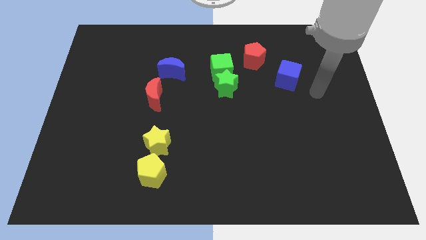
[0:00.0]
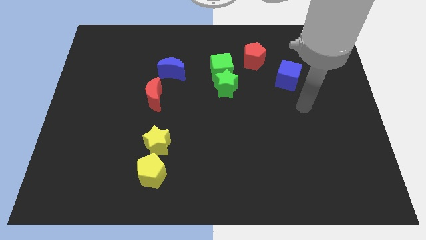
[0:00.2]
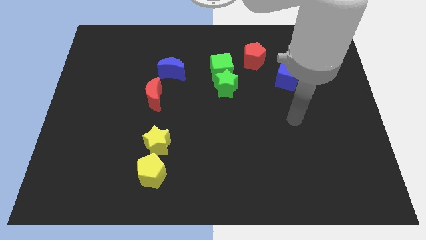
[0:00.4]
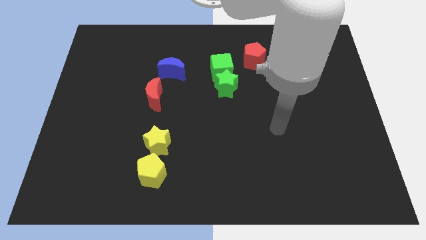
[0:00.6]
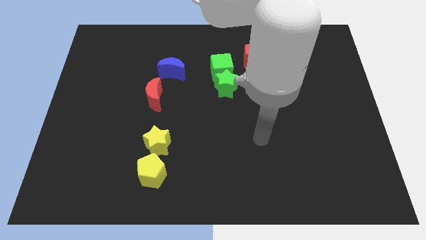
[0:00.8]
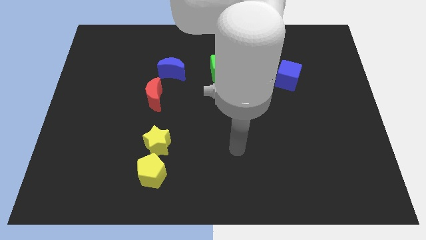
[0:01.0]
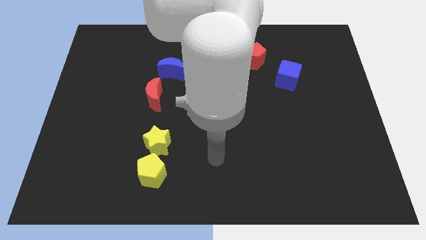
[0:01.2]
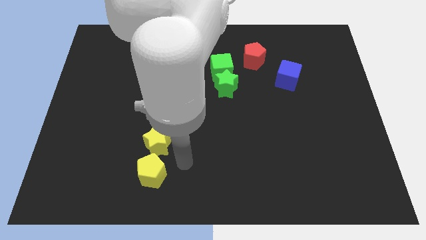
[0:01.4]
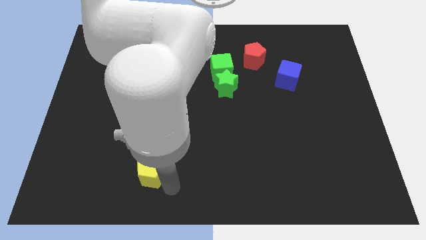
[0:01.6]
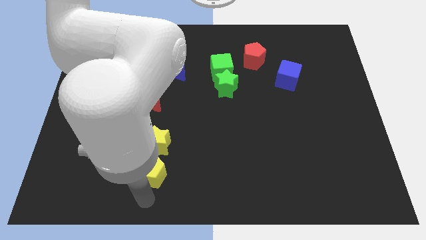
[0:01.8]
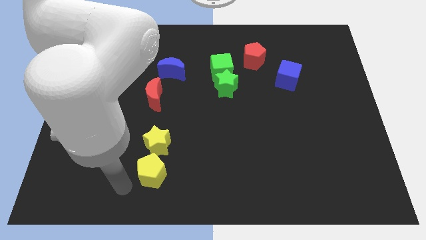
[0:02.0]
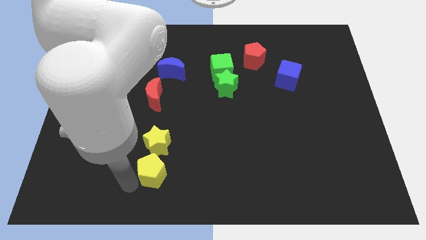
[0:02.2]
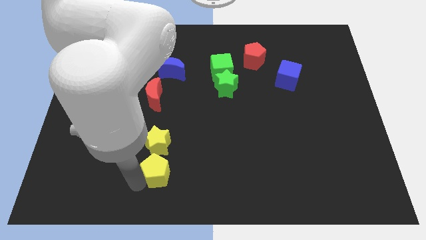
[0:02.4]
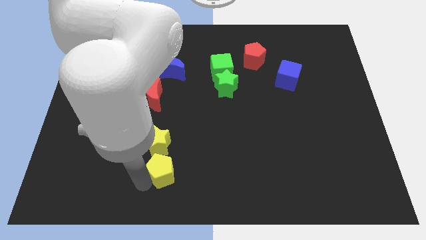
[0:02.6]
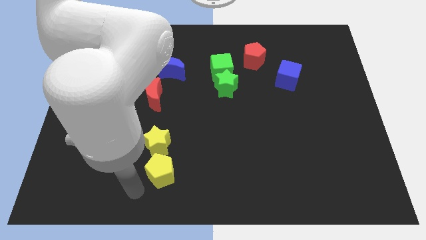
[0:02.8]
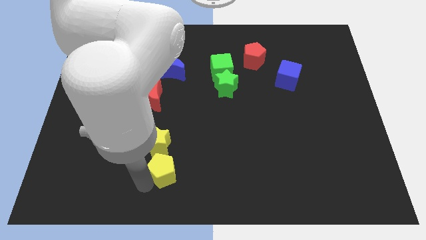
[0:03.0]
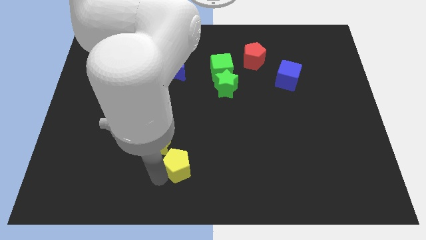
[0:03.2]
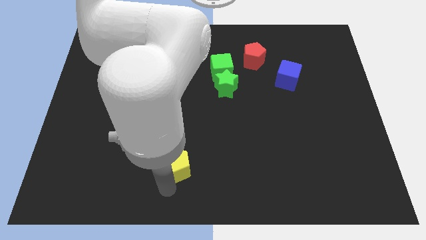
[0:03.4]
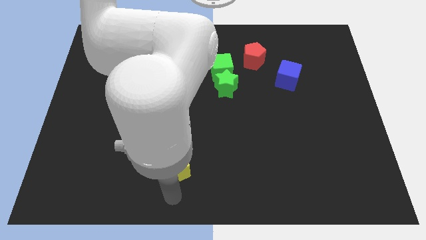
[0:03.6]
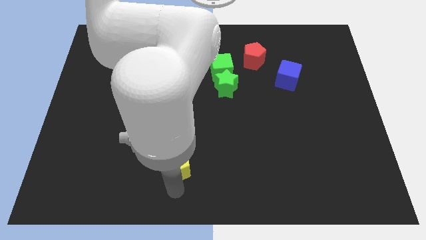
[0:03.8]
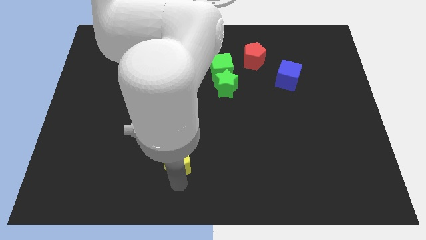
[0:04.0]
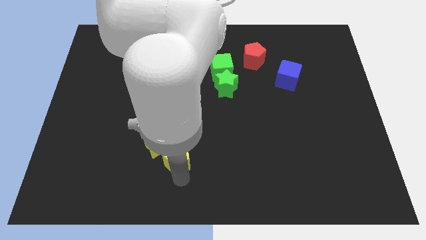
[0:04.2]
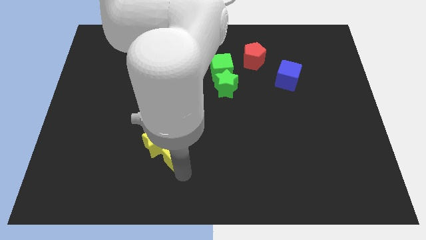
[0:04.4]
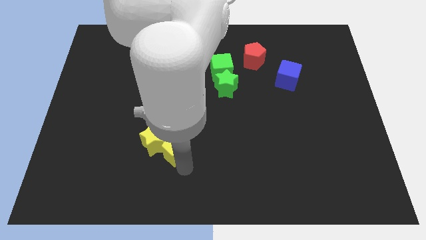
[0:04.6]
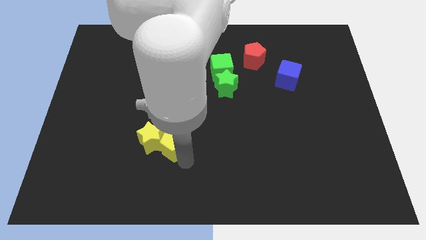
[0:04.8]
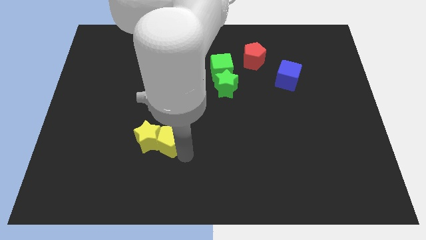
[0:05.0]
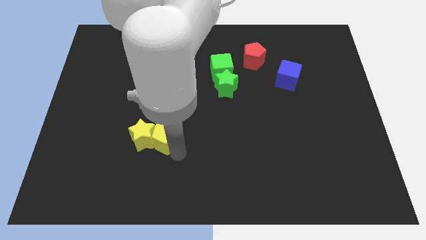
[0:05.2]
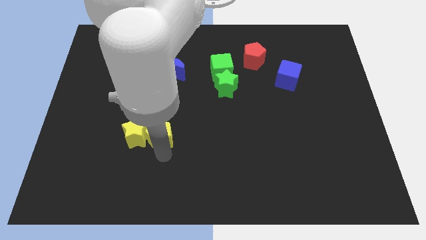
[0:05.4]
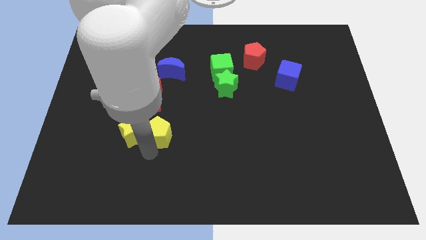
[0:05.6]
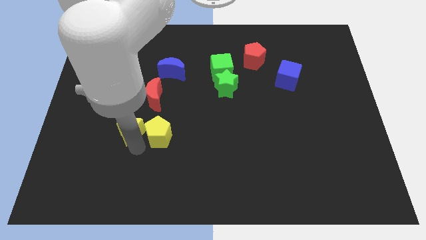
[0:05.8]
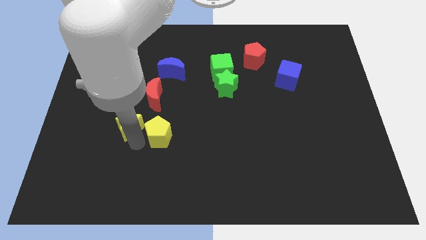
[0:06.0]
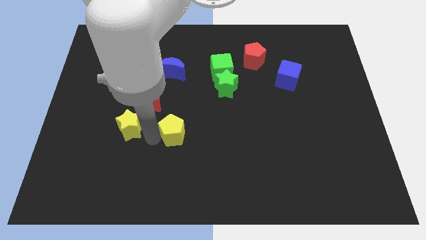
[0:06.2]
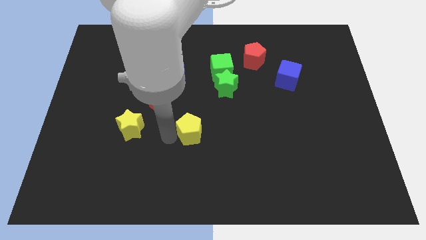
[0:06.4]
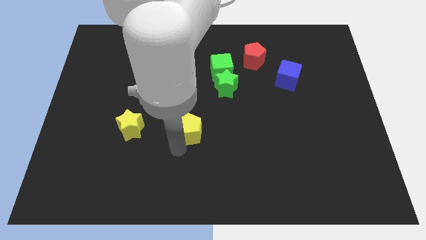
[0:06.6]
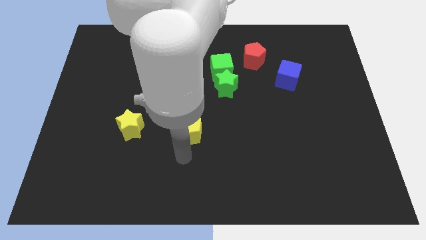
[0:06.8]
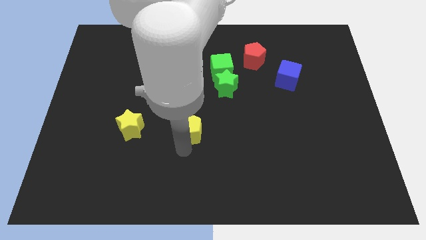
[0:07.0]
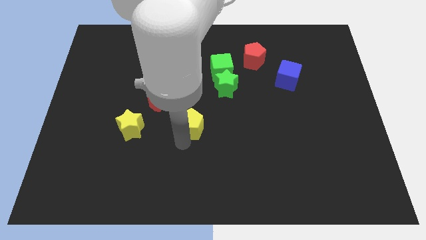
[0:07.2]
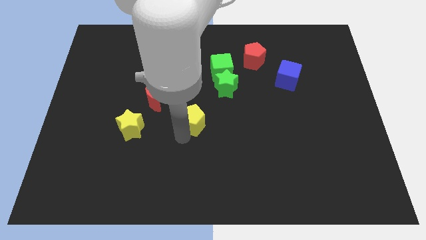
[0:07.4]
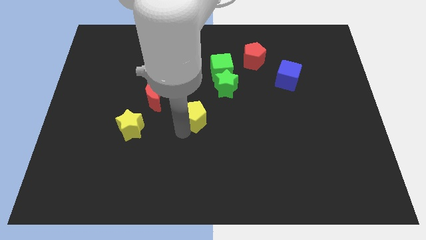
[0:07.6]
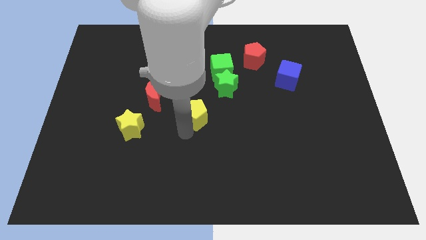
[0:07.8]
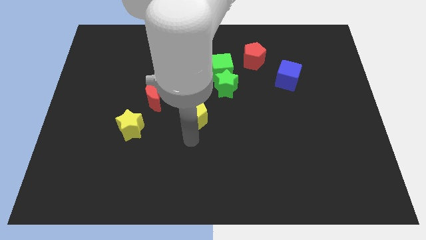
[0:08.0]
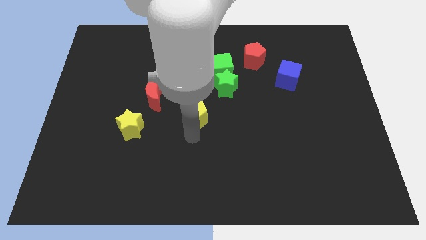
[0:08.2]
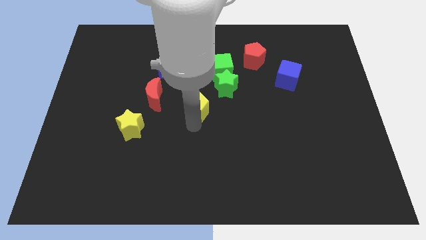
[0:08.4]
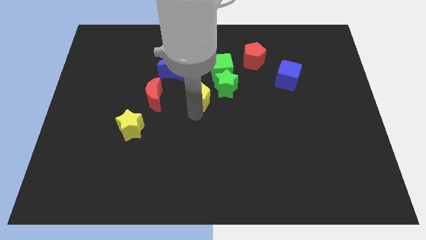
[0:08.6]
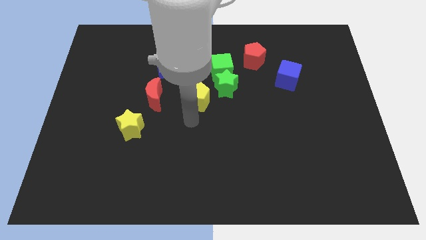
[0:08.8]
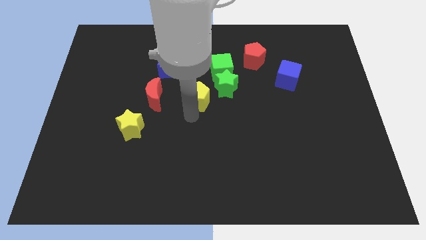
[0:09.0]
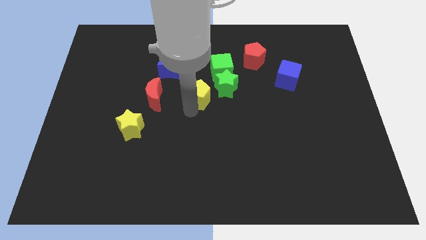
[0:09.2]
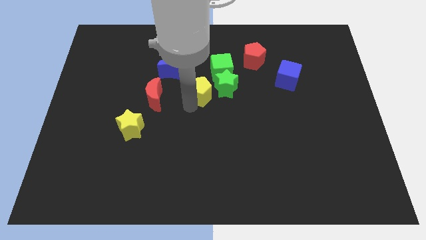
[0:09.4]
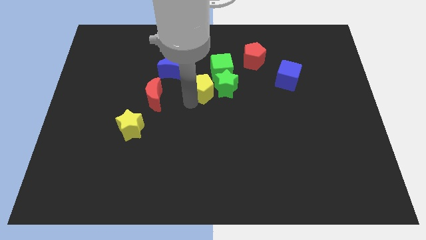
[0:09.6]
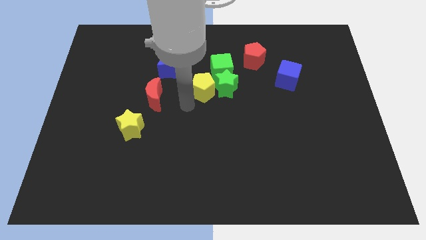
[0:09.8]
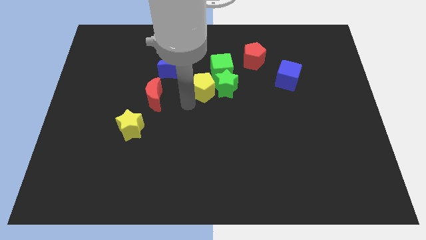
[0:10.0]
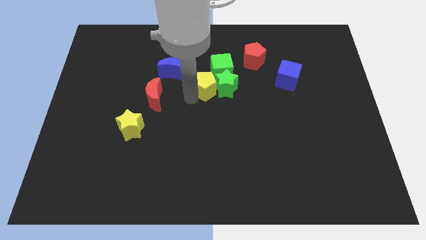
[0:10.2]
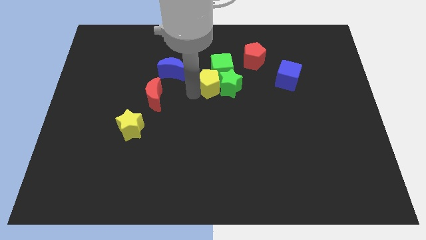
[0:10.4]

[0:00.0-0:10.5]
put the yellow pentagon close to the green cube

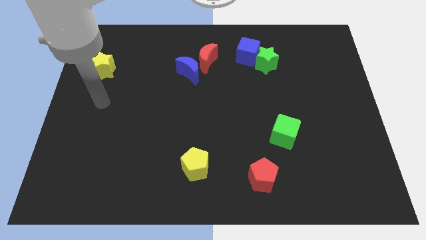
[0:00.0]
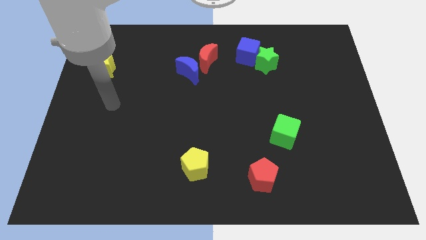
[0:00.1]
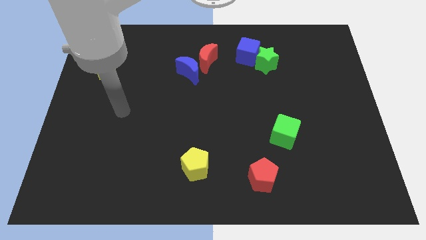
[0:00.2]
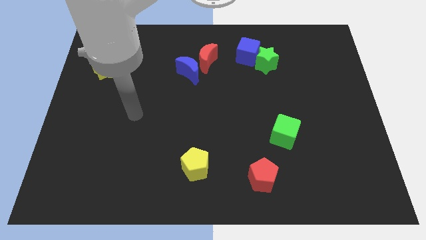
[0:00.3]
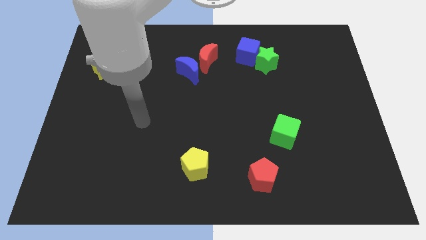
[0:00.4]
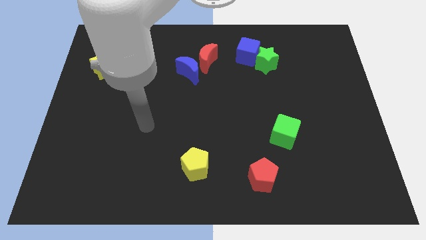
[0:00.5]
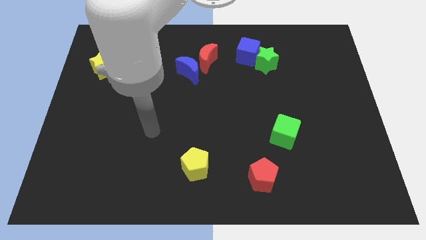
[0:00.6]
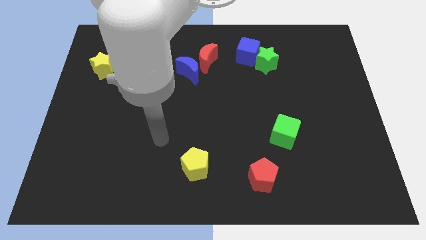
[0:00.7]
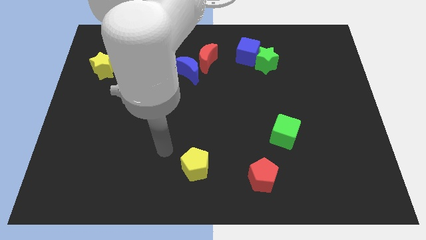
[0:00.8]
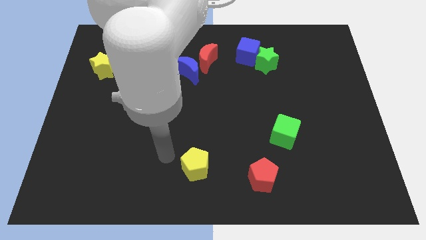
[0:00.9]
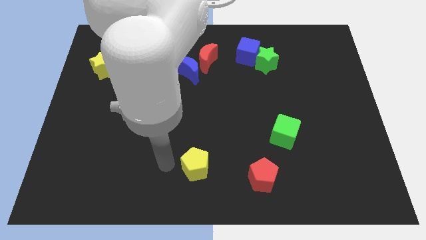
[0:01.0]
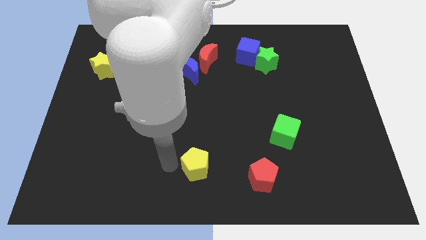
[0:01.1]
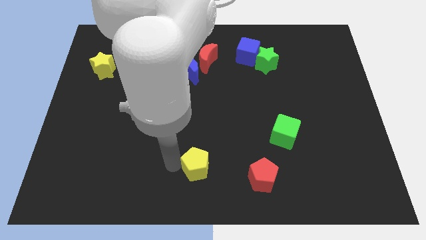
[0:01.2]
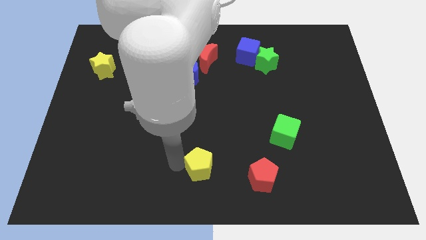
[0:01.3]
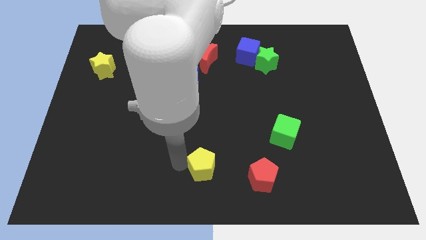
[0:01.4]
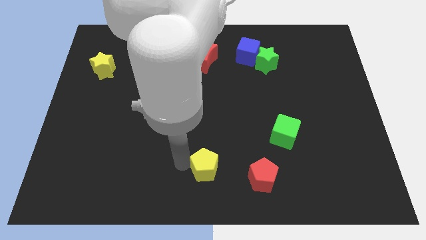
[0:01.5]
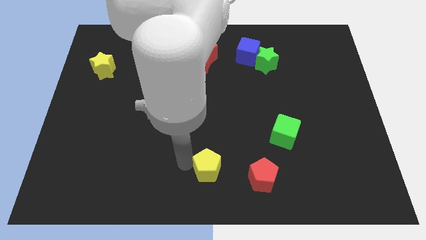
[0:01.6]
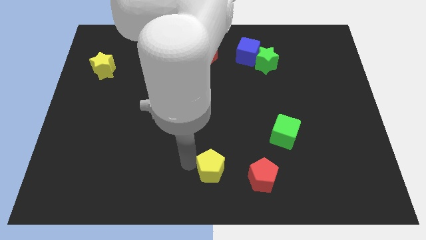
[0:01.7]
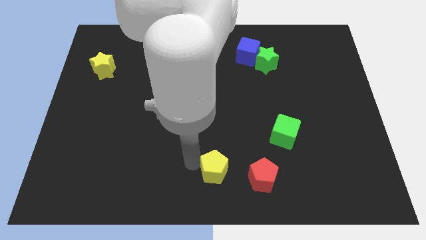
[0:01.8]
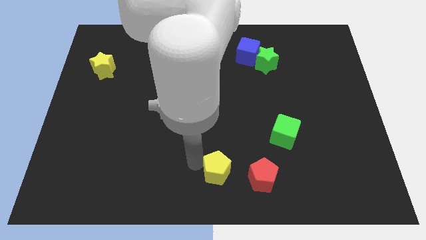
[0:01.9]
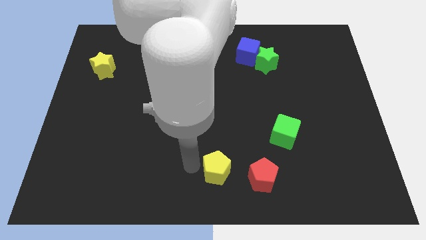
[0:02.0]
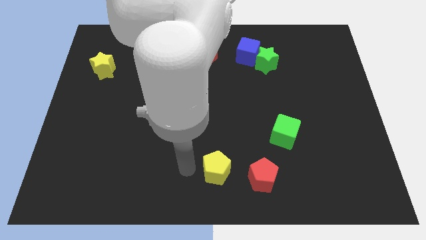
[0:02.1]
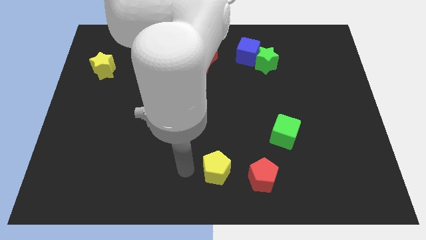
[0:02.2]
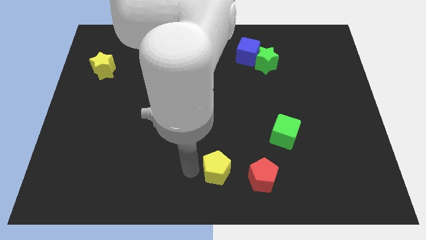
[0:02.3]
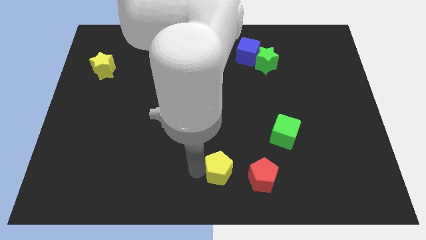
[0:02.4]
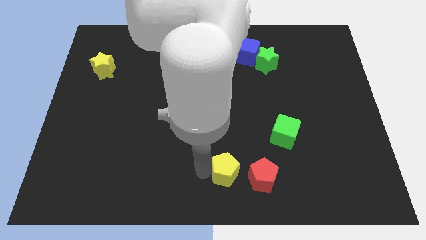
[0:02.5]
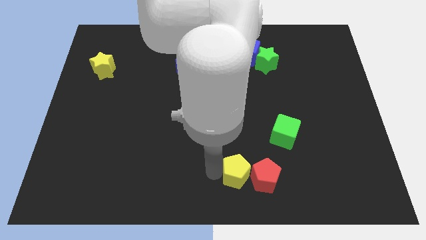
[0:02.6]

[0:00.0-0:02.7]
move the yellow pentagon close to the red pentagon
